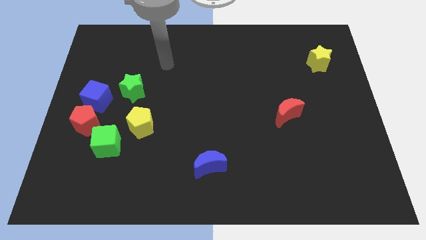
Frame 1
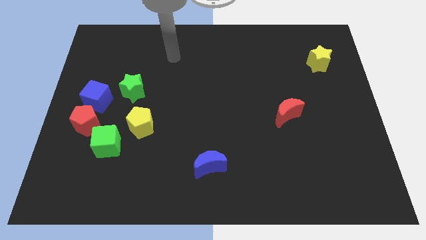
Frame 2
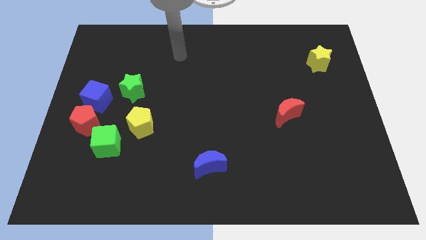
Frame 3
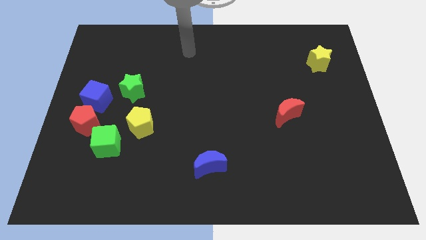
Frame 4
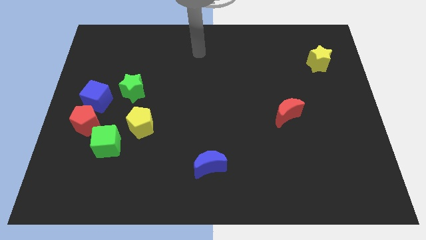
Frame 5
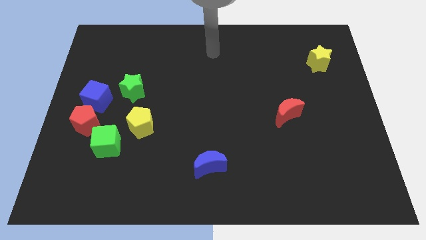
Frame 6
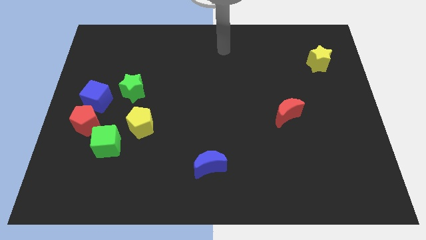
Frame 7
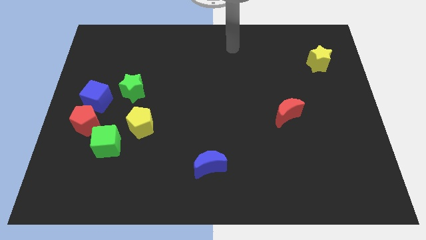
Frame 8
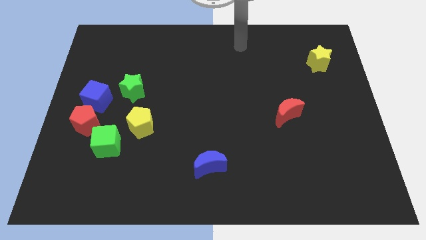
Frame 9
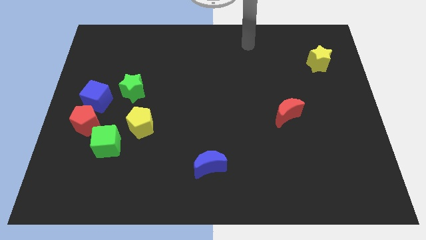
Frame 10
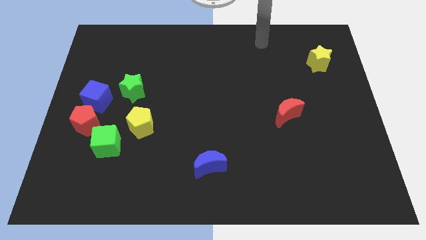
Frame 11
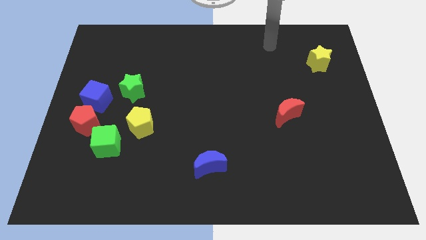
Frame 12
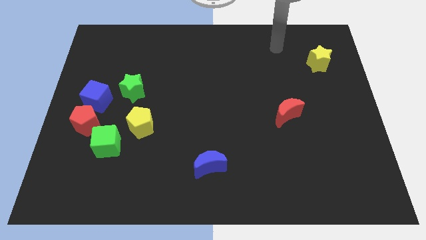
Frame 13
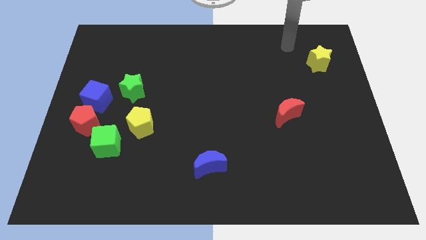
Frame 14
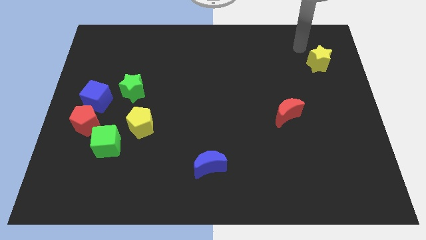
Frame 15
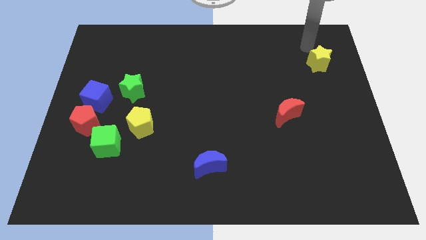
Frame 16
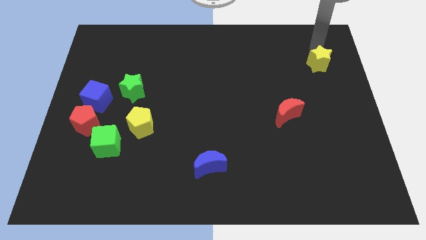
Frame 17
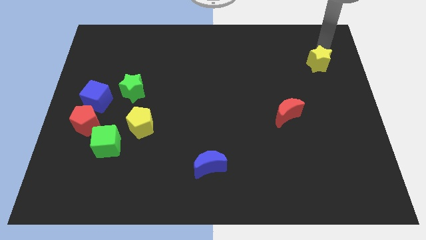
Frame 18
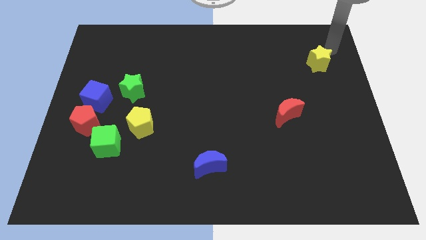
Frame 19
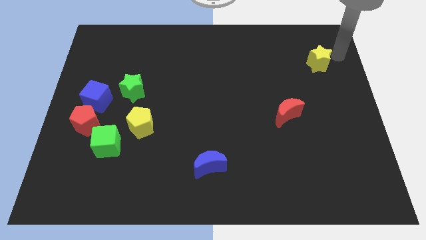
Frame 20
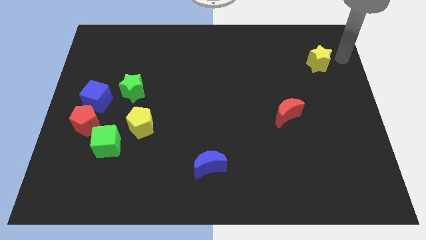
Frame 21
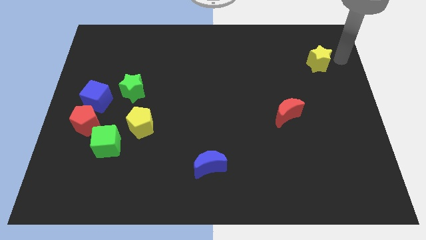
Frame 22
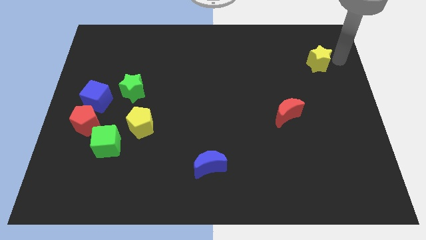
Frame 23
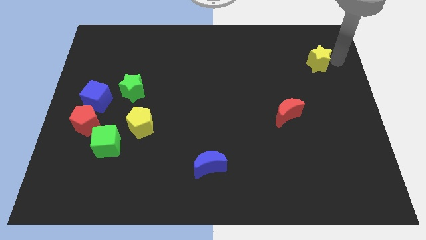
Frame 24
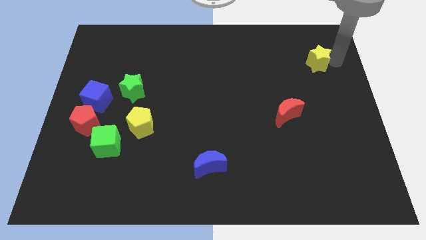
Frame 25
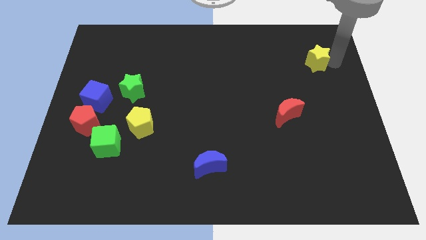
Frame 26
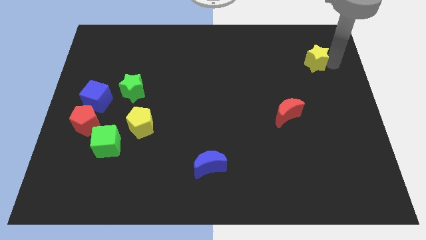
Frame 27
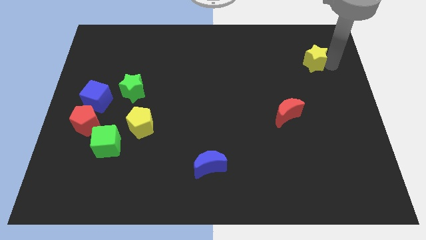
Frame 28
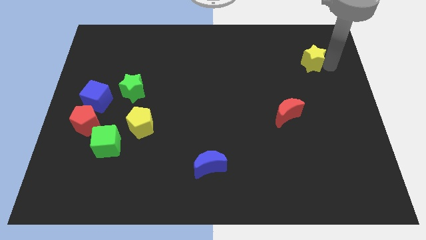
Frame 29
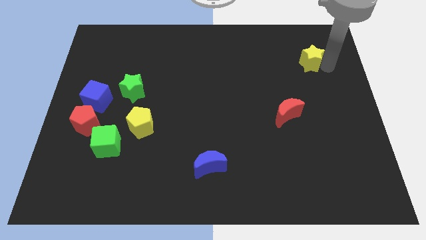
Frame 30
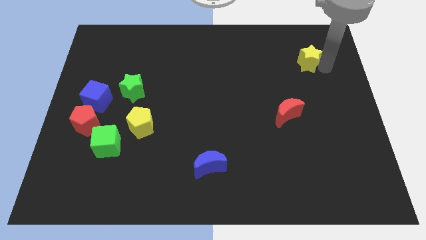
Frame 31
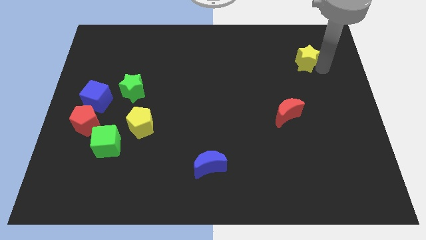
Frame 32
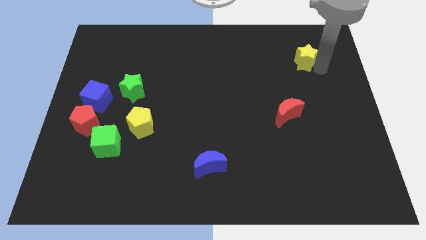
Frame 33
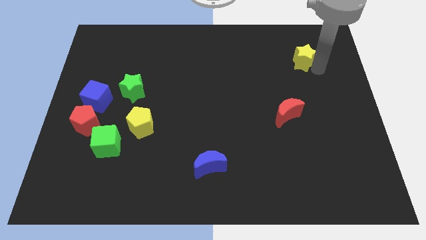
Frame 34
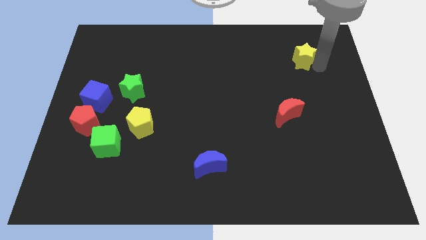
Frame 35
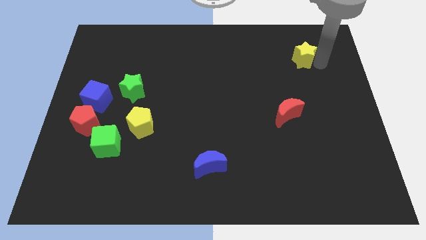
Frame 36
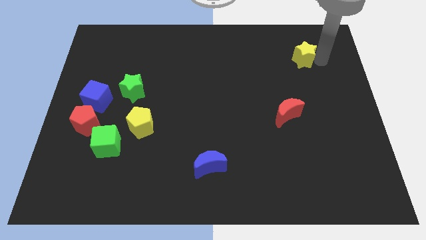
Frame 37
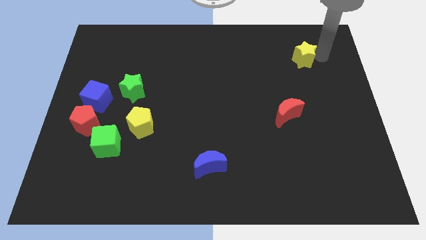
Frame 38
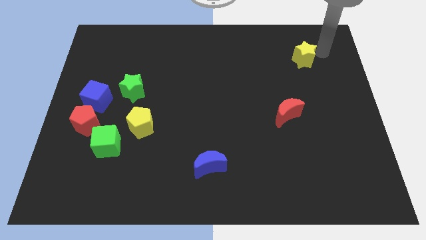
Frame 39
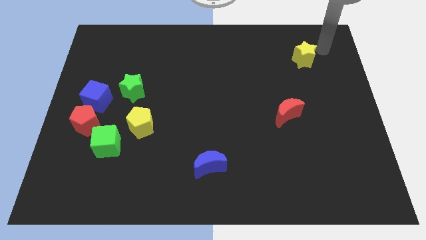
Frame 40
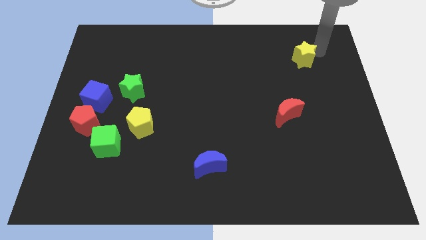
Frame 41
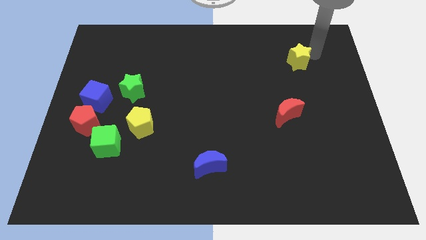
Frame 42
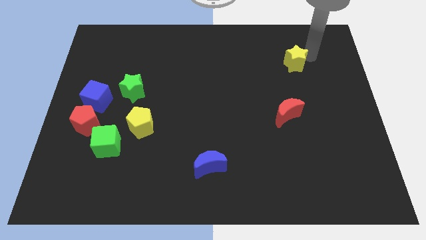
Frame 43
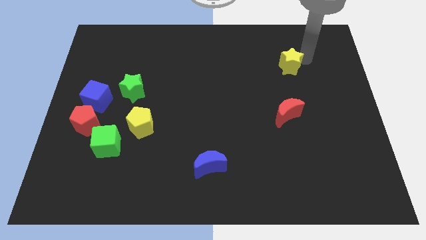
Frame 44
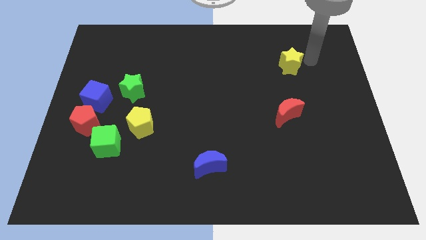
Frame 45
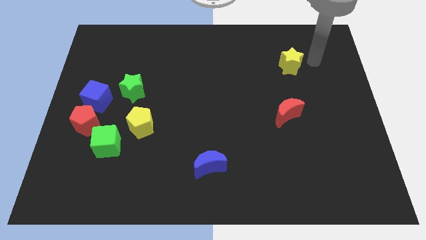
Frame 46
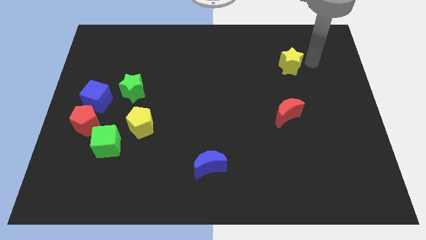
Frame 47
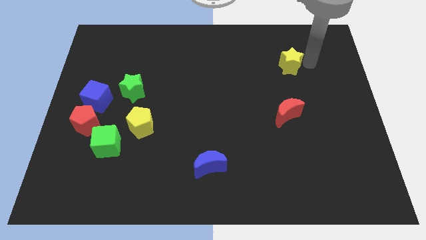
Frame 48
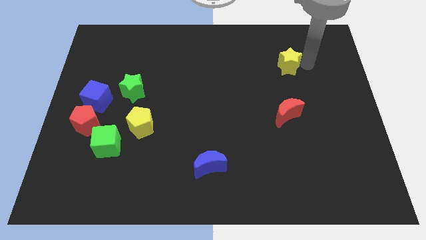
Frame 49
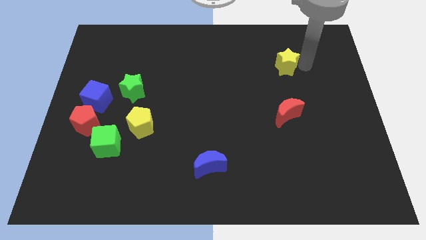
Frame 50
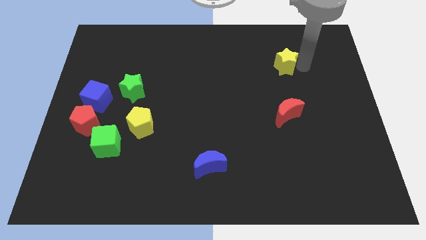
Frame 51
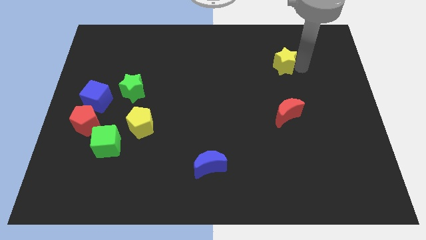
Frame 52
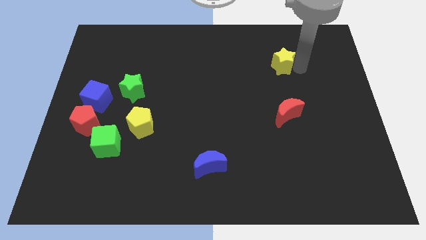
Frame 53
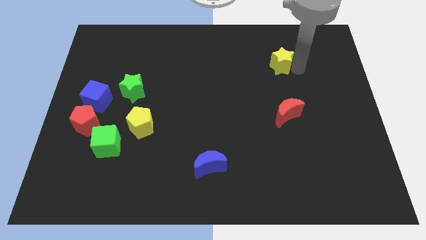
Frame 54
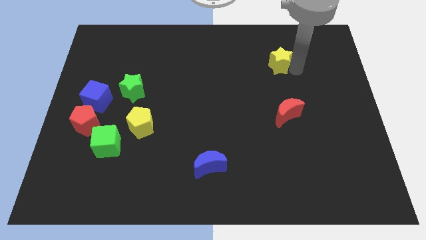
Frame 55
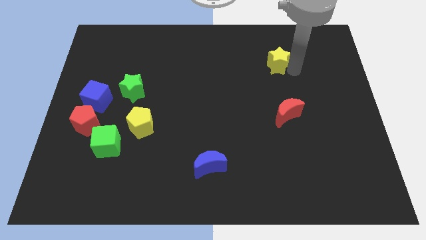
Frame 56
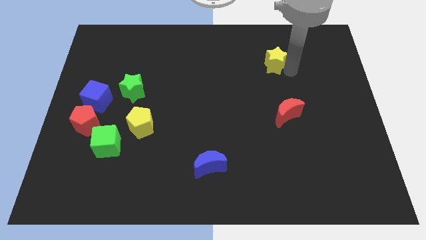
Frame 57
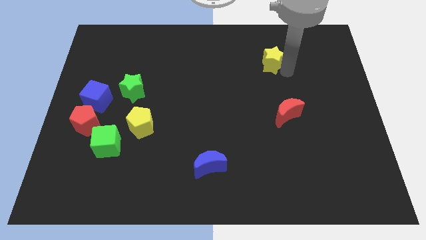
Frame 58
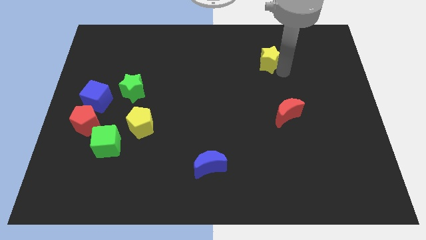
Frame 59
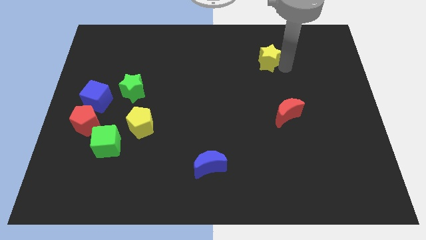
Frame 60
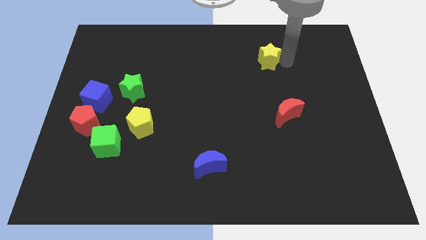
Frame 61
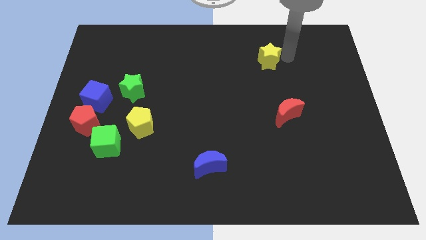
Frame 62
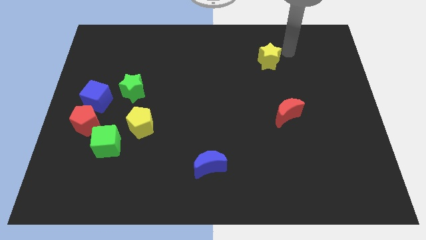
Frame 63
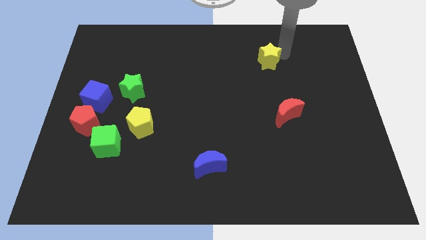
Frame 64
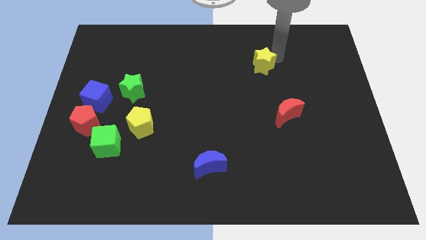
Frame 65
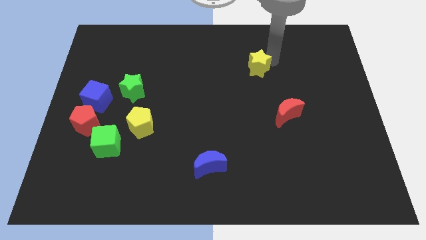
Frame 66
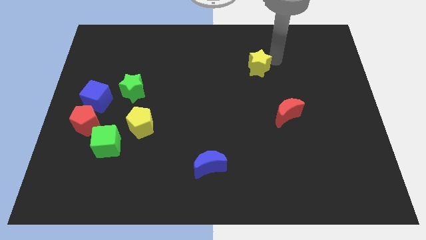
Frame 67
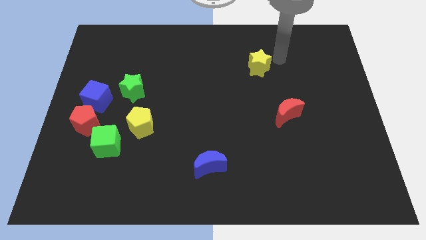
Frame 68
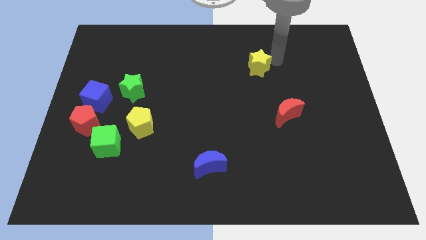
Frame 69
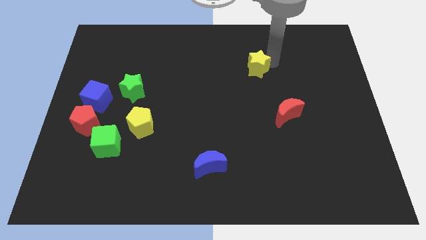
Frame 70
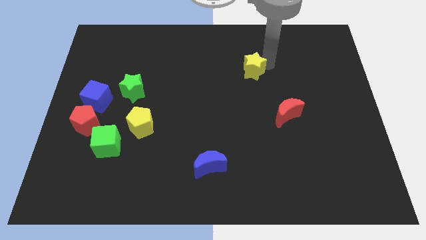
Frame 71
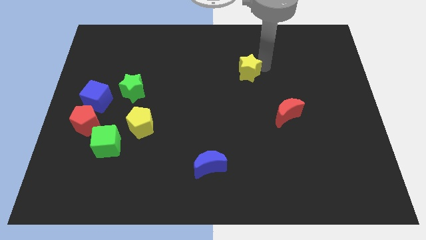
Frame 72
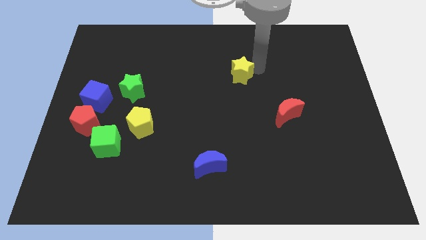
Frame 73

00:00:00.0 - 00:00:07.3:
slide the yellow star to the middle of the board
